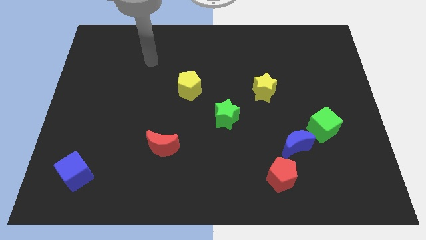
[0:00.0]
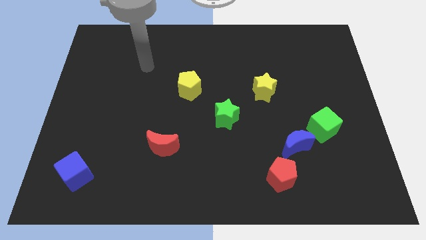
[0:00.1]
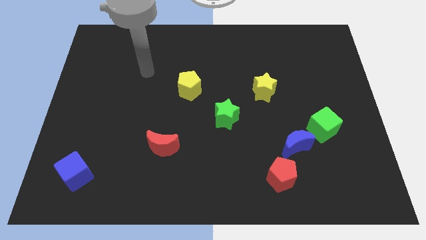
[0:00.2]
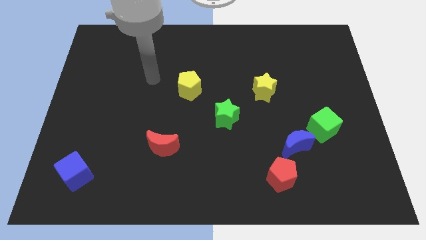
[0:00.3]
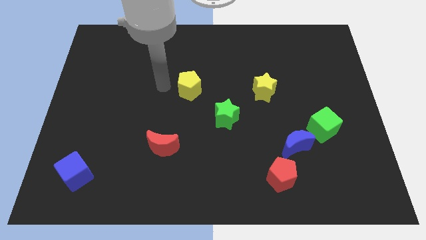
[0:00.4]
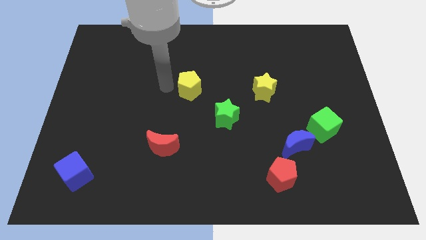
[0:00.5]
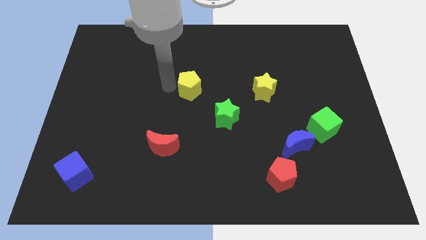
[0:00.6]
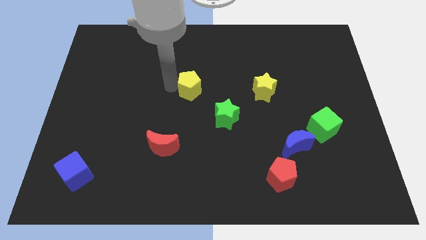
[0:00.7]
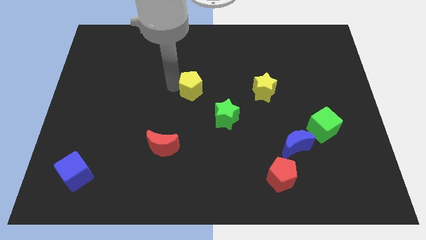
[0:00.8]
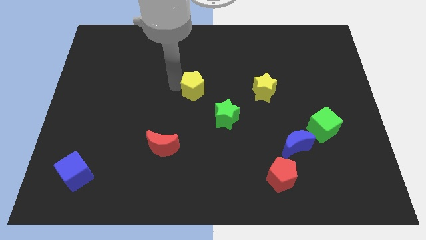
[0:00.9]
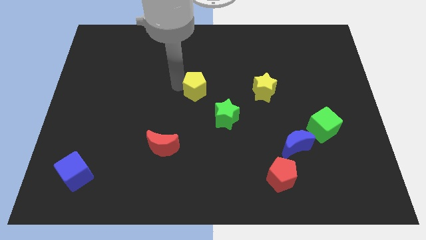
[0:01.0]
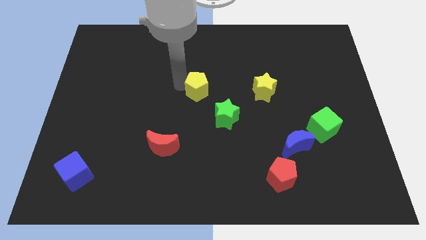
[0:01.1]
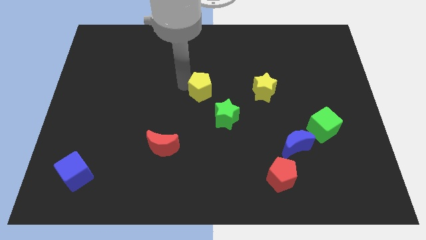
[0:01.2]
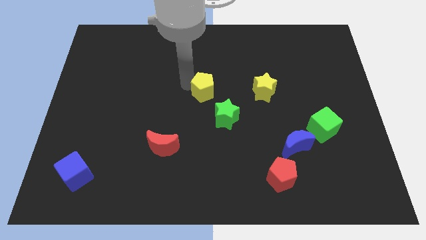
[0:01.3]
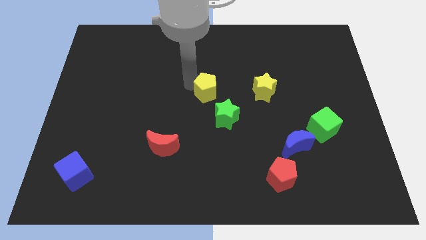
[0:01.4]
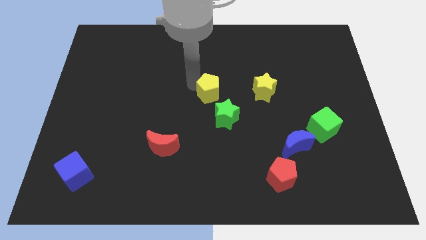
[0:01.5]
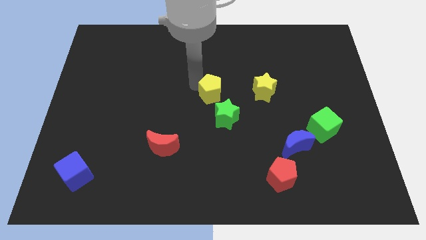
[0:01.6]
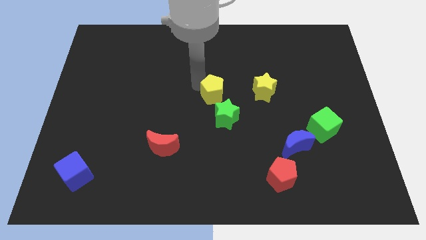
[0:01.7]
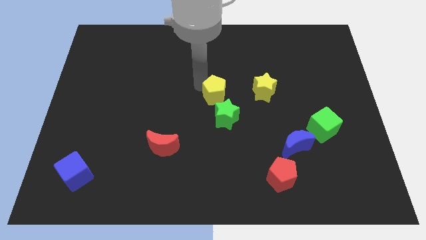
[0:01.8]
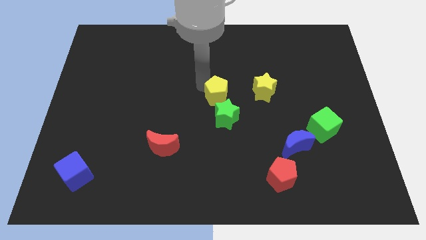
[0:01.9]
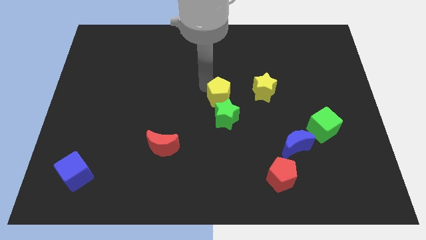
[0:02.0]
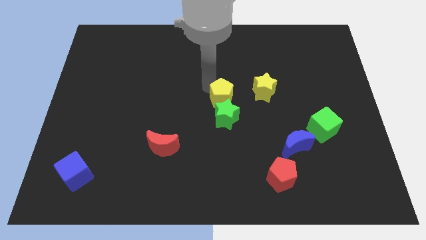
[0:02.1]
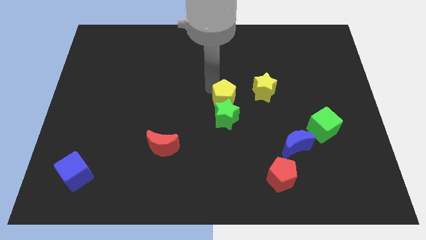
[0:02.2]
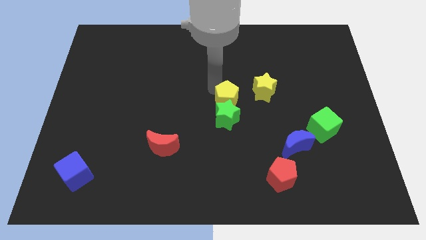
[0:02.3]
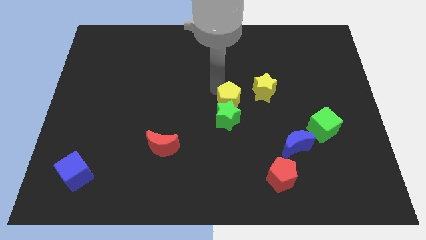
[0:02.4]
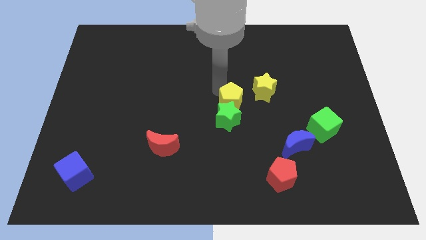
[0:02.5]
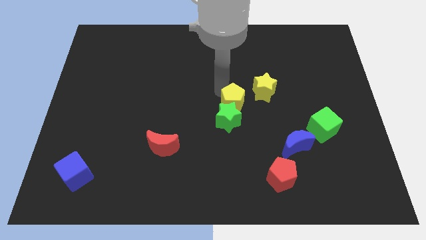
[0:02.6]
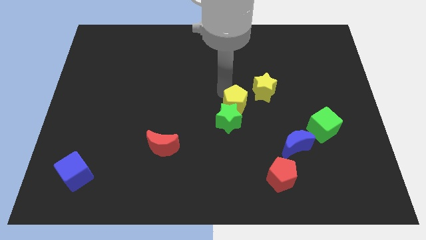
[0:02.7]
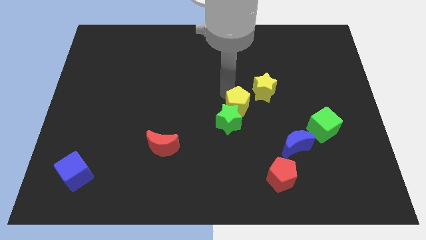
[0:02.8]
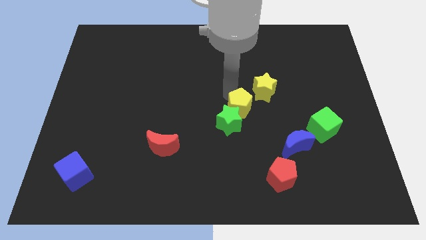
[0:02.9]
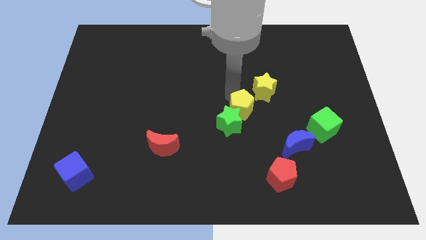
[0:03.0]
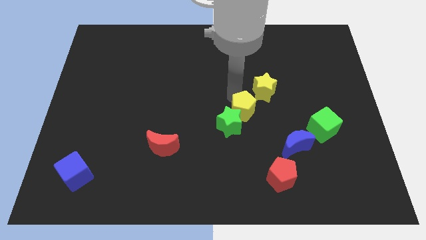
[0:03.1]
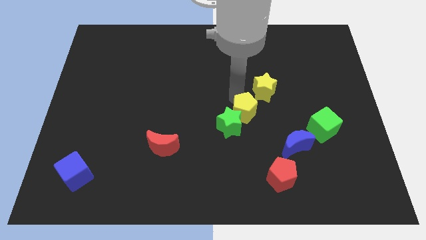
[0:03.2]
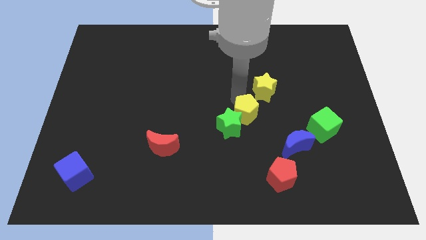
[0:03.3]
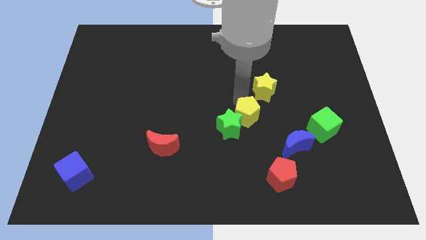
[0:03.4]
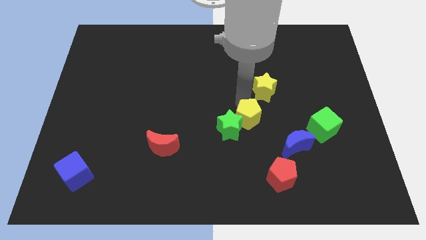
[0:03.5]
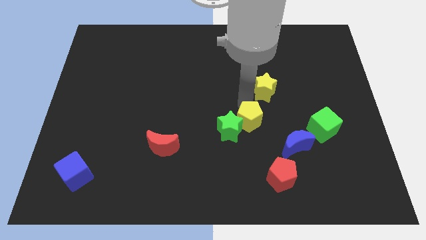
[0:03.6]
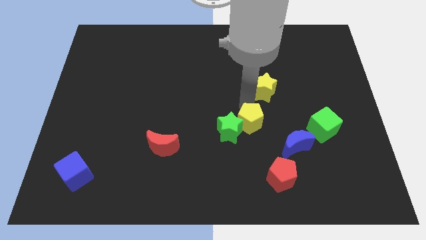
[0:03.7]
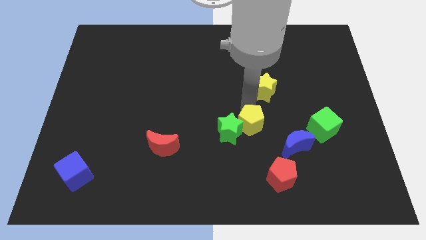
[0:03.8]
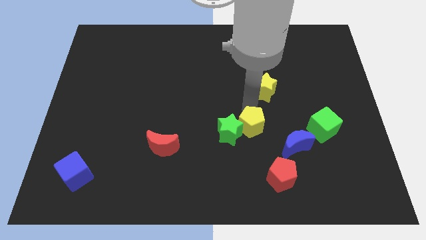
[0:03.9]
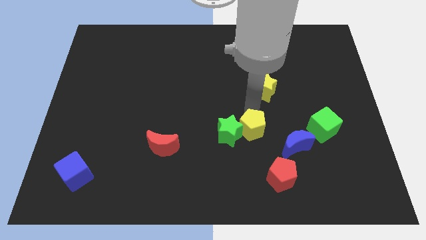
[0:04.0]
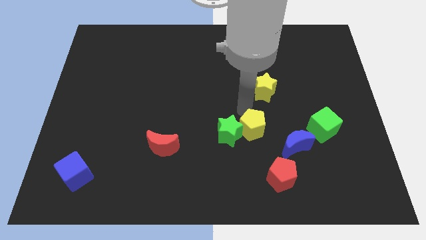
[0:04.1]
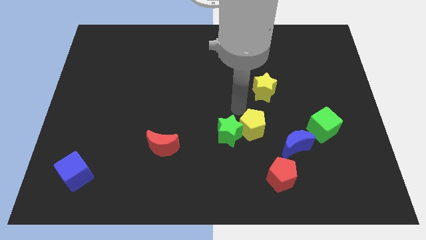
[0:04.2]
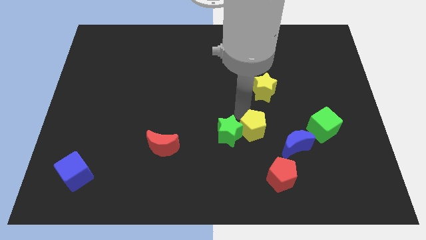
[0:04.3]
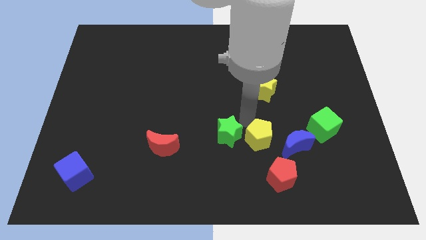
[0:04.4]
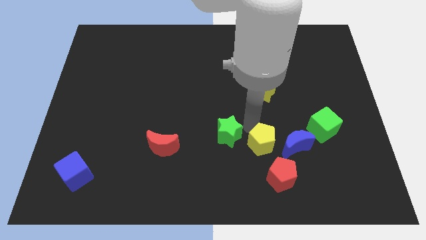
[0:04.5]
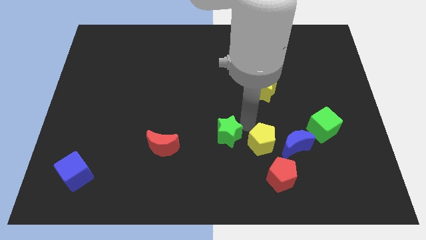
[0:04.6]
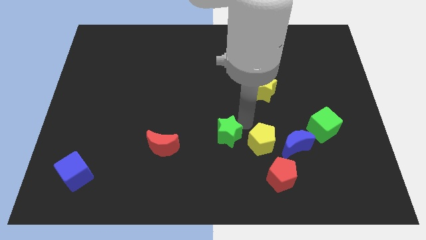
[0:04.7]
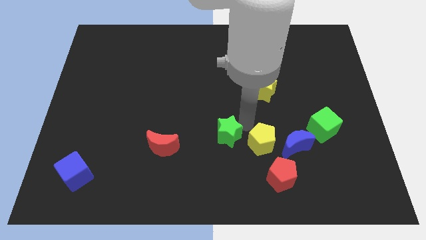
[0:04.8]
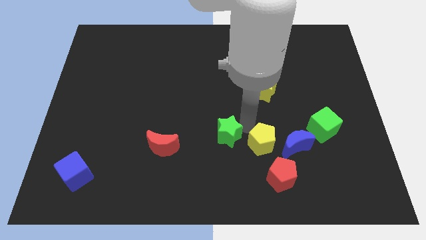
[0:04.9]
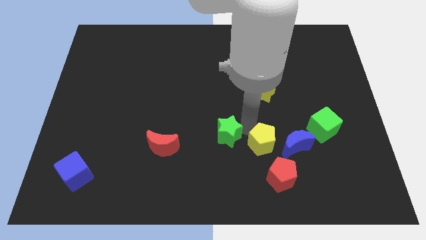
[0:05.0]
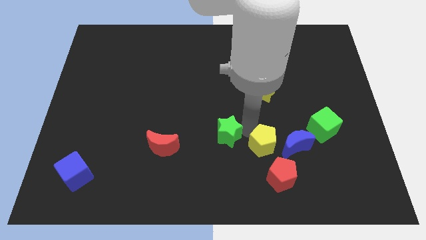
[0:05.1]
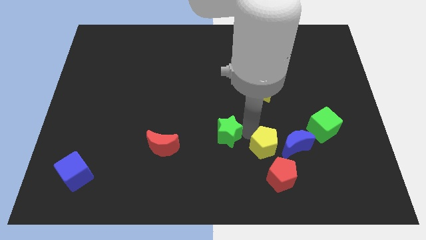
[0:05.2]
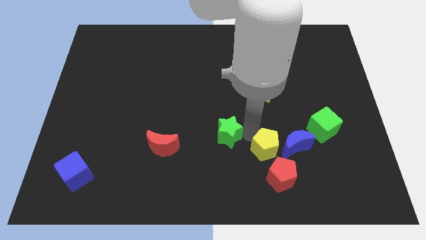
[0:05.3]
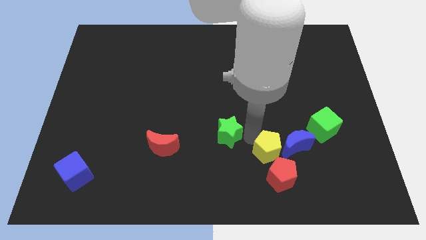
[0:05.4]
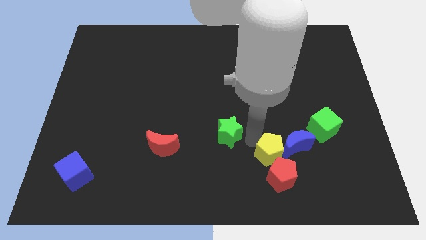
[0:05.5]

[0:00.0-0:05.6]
move the yellow pentagon towards the red pentagon

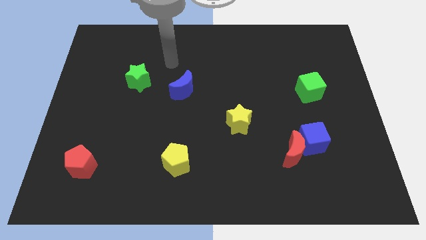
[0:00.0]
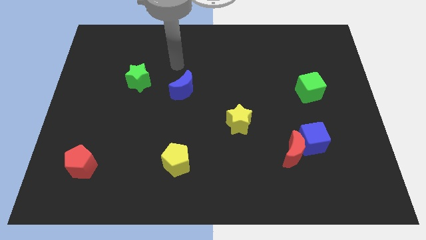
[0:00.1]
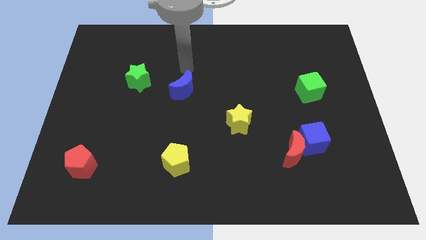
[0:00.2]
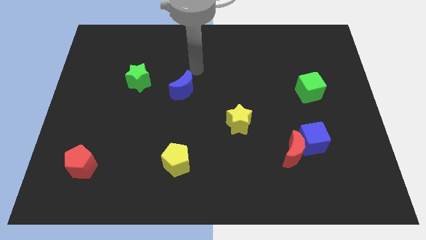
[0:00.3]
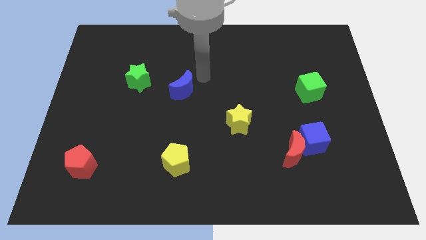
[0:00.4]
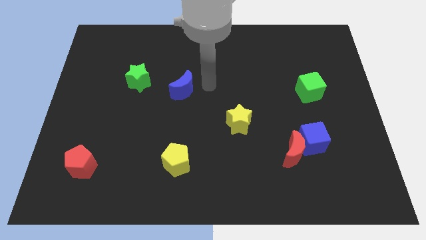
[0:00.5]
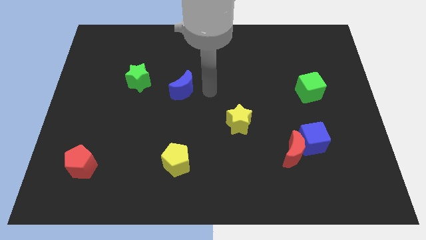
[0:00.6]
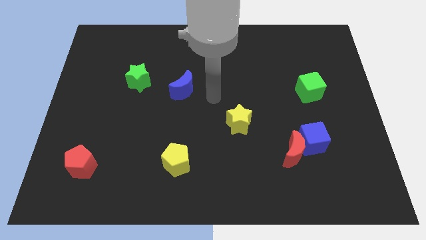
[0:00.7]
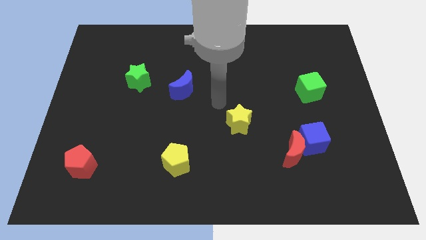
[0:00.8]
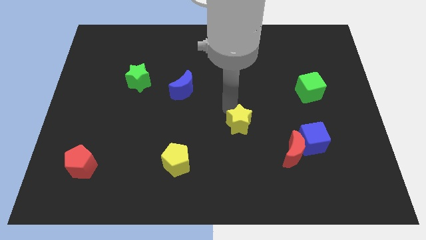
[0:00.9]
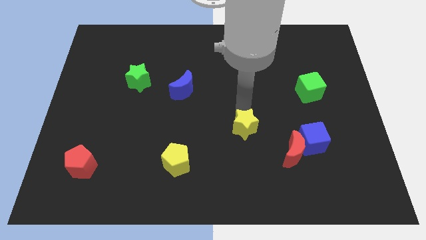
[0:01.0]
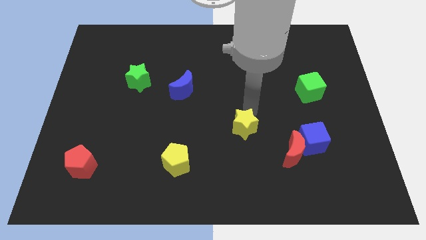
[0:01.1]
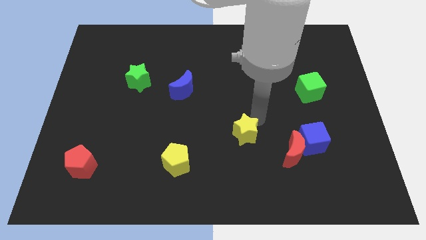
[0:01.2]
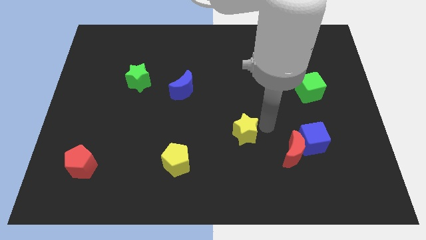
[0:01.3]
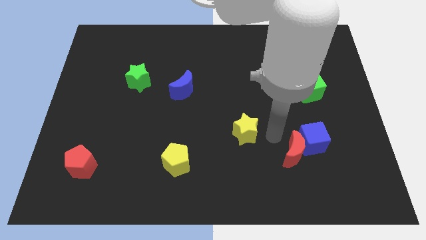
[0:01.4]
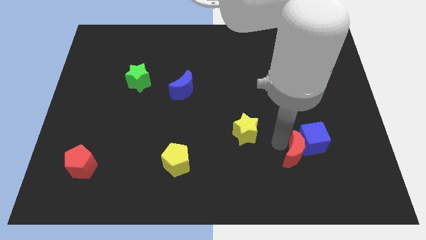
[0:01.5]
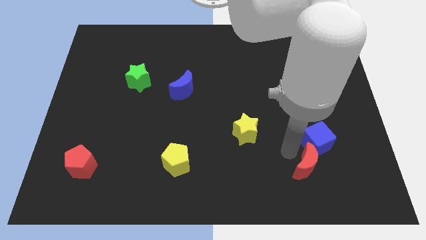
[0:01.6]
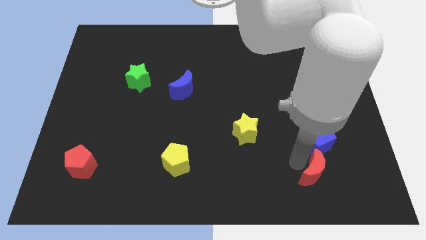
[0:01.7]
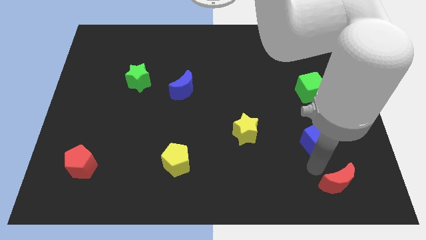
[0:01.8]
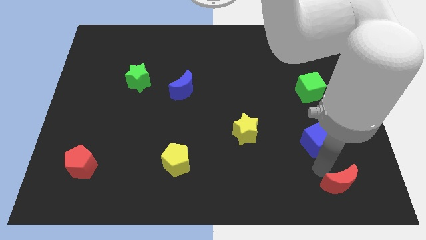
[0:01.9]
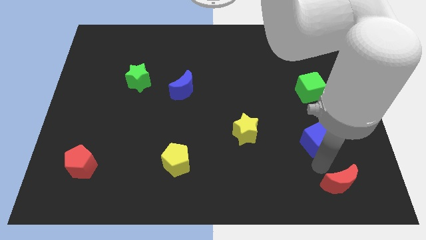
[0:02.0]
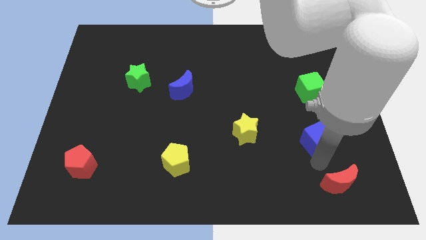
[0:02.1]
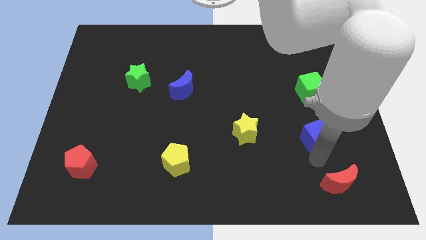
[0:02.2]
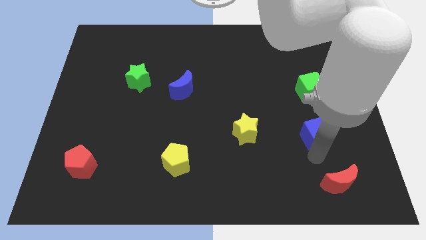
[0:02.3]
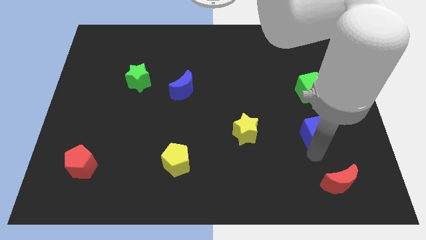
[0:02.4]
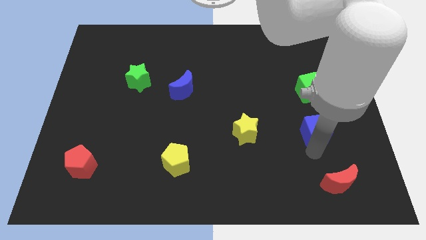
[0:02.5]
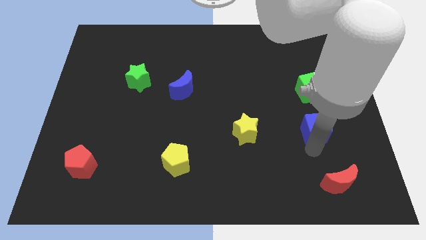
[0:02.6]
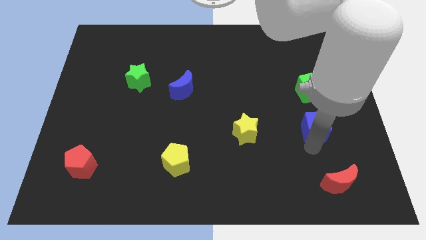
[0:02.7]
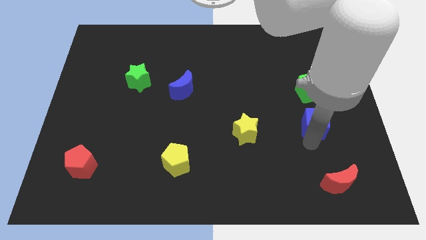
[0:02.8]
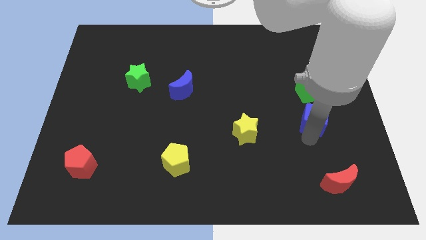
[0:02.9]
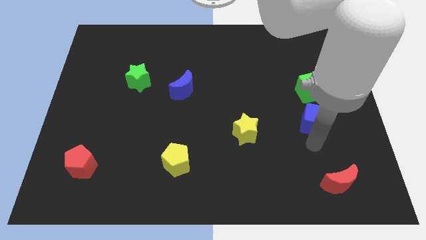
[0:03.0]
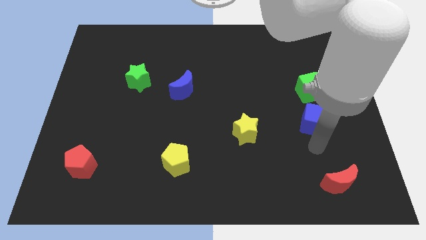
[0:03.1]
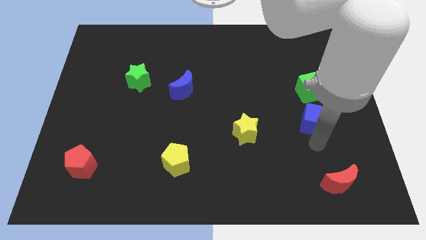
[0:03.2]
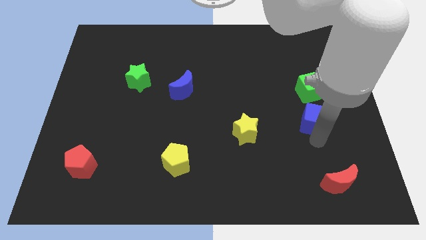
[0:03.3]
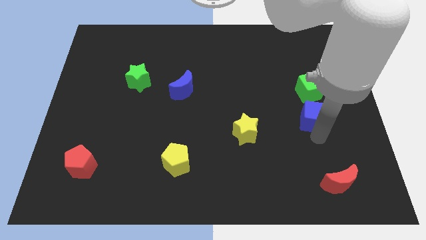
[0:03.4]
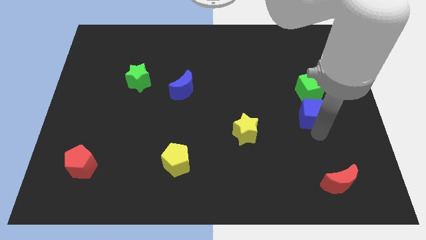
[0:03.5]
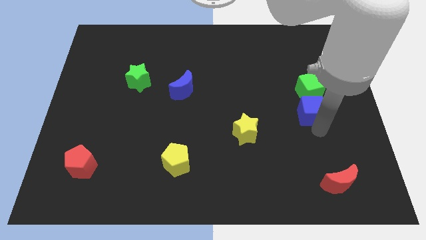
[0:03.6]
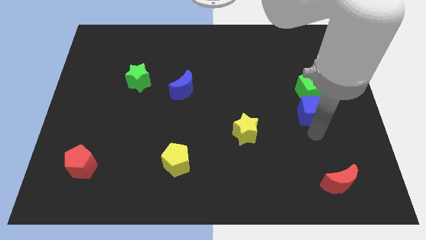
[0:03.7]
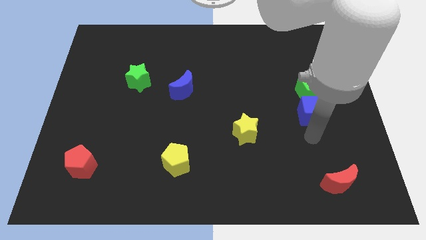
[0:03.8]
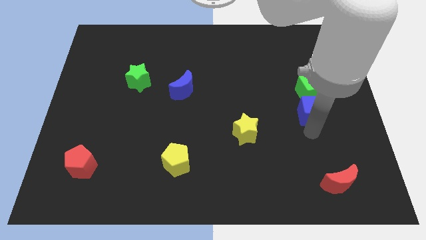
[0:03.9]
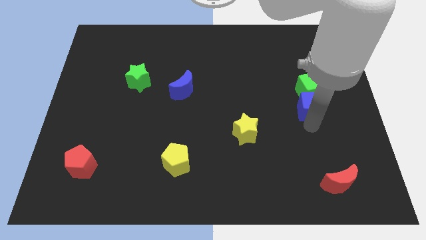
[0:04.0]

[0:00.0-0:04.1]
move the blue cube to the green cube
